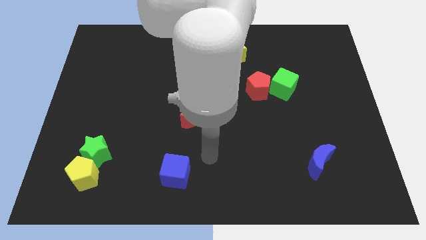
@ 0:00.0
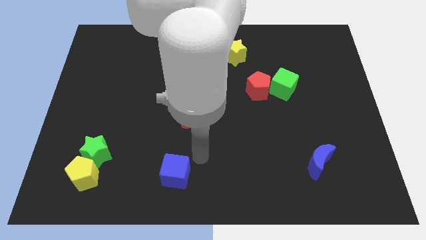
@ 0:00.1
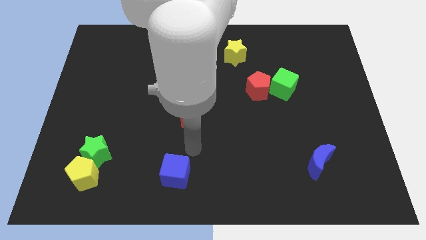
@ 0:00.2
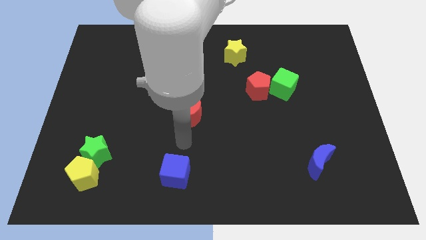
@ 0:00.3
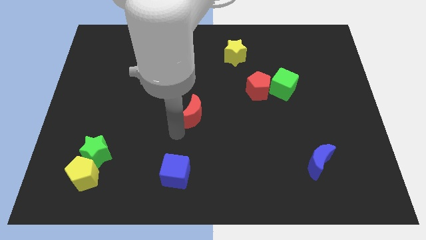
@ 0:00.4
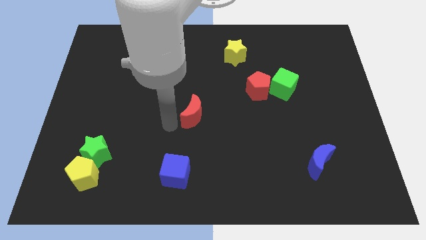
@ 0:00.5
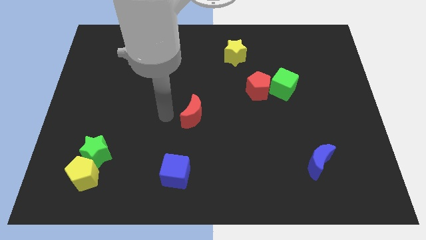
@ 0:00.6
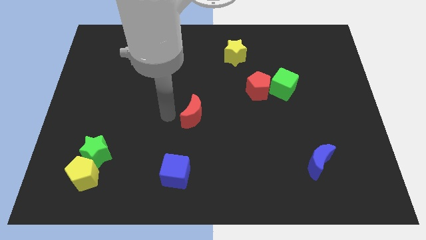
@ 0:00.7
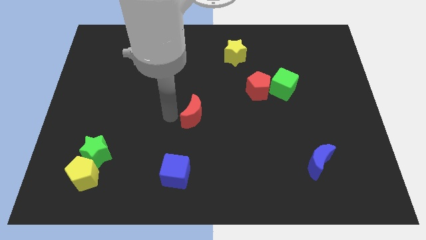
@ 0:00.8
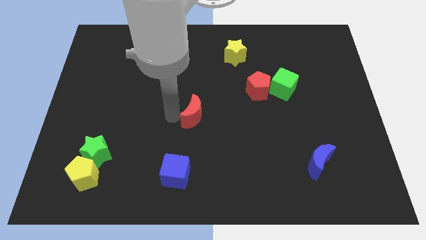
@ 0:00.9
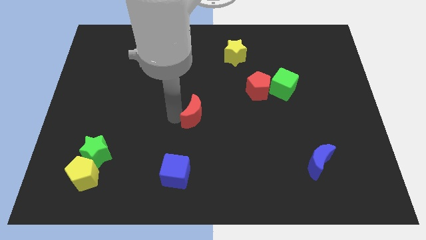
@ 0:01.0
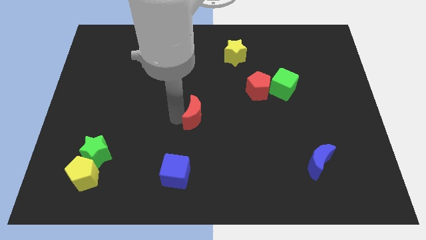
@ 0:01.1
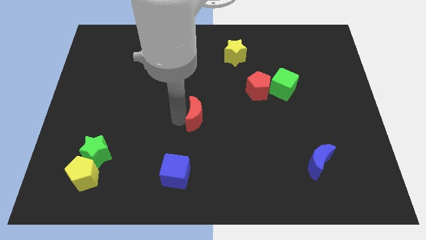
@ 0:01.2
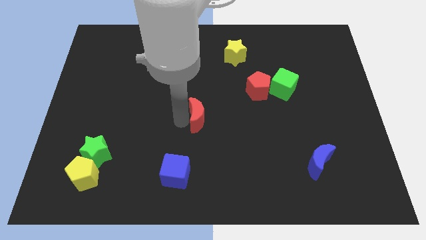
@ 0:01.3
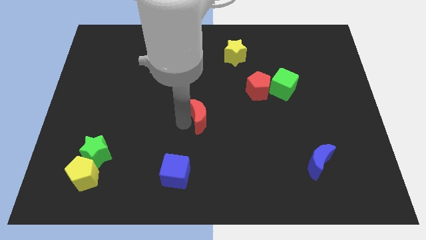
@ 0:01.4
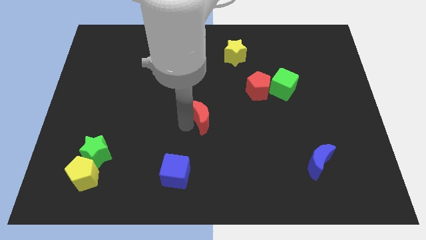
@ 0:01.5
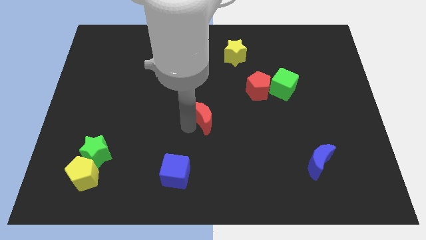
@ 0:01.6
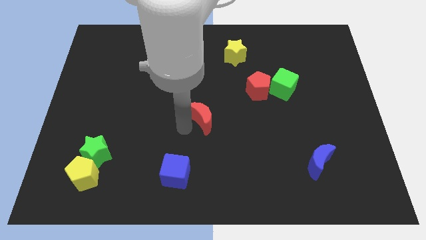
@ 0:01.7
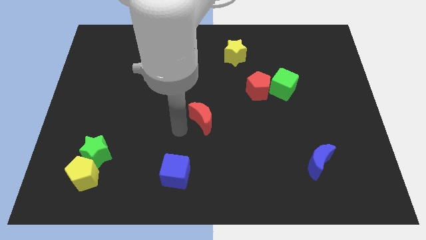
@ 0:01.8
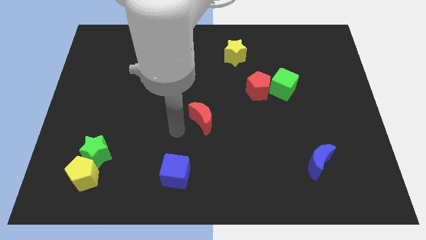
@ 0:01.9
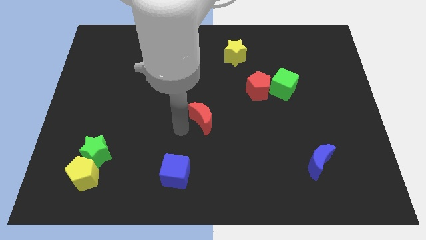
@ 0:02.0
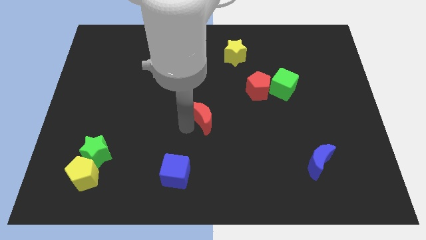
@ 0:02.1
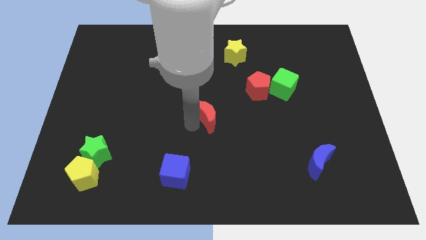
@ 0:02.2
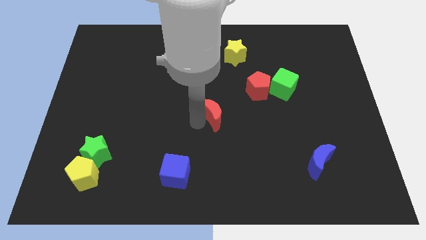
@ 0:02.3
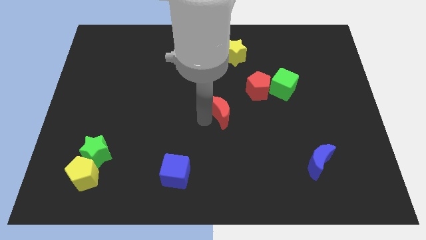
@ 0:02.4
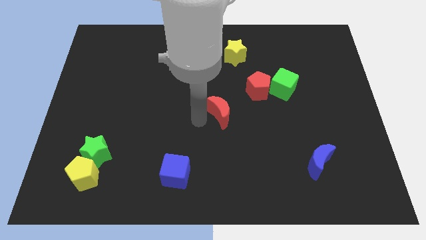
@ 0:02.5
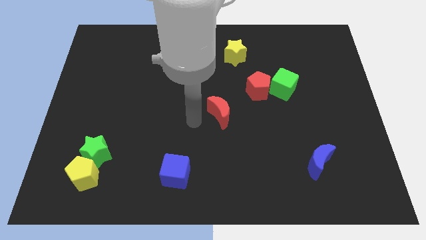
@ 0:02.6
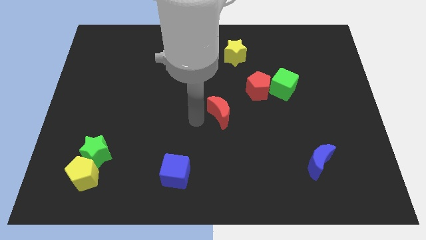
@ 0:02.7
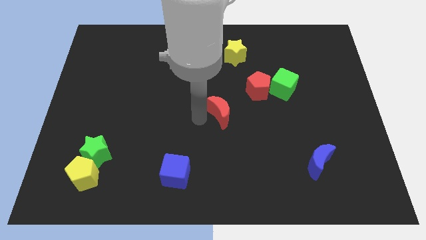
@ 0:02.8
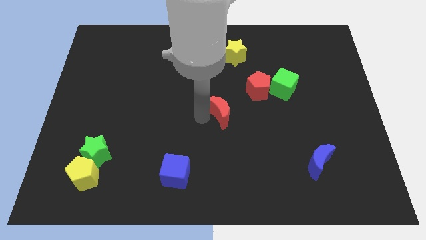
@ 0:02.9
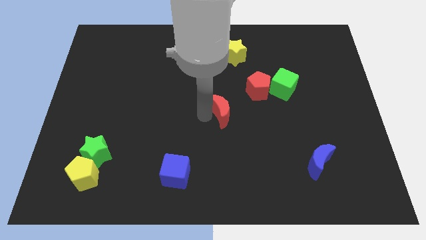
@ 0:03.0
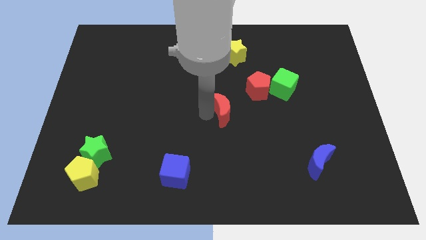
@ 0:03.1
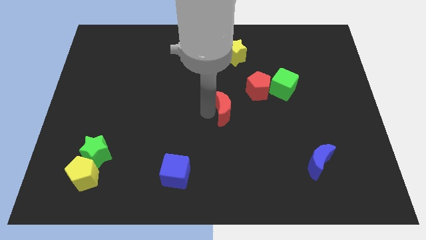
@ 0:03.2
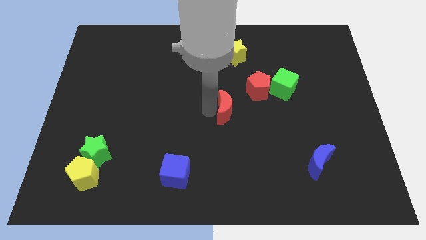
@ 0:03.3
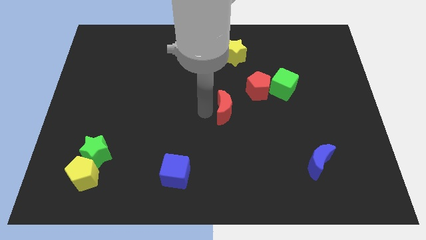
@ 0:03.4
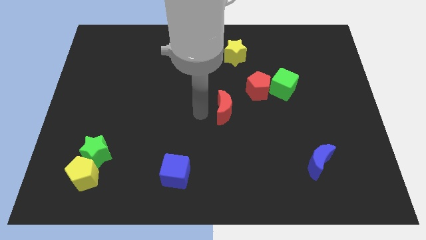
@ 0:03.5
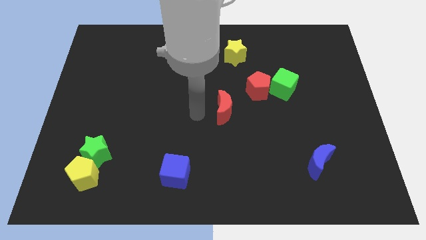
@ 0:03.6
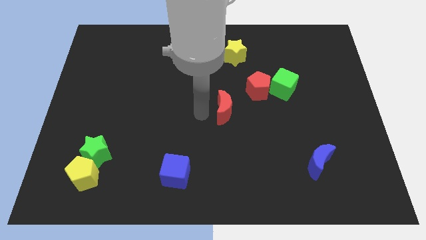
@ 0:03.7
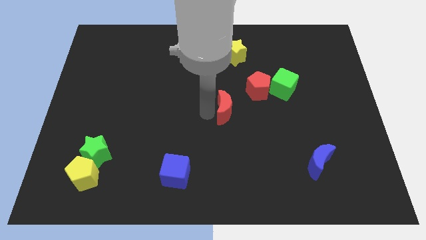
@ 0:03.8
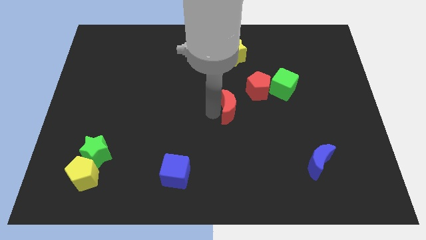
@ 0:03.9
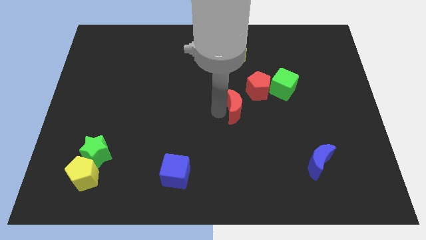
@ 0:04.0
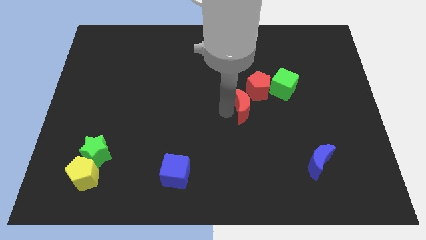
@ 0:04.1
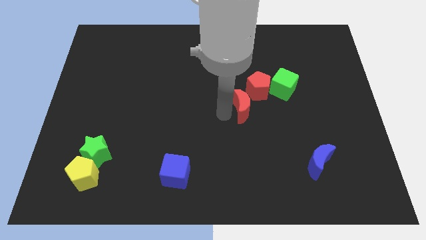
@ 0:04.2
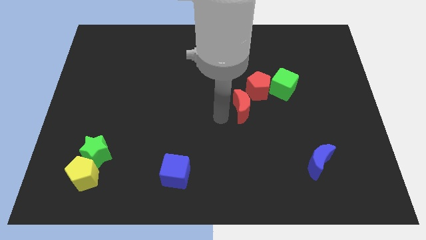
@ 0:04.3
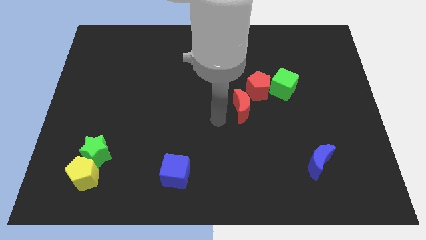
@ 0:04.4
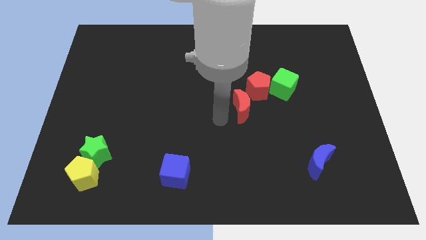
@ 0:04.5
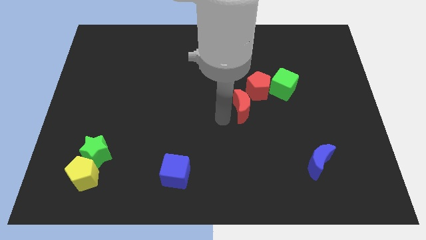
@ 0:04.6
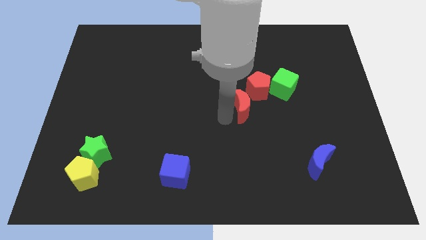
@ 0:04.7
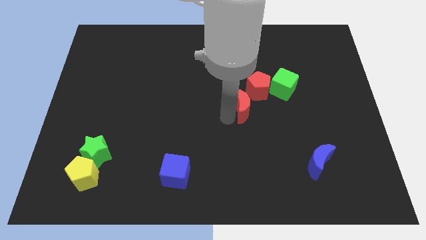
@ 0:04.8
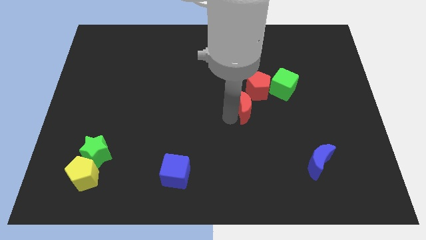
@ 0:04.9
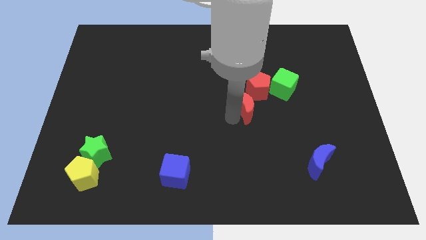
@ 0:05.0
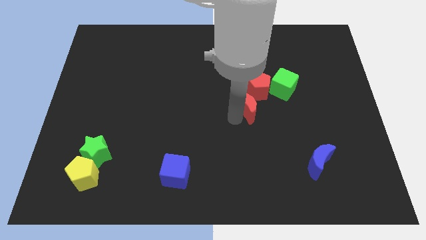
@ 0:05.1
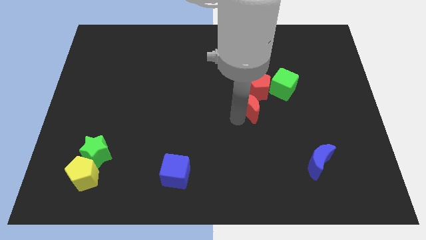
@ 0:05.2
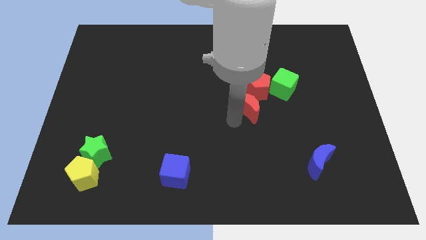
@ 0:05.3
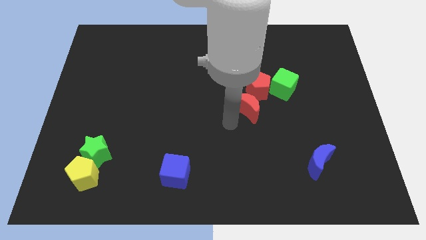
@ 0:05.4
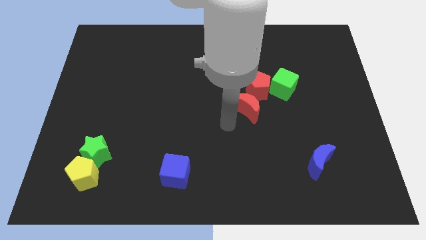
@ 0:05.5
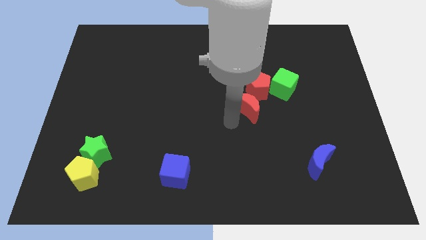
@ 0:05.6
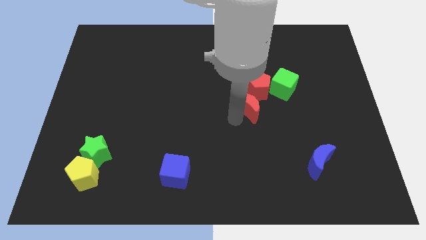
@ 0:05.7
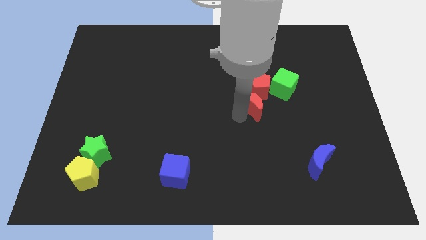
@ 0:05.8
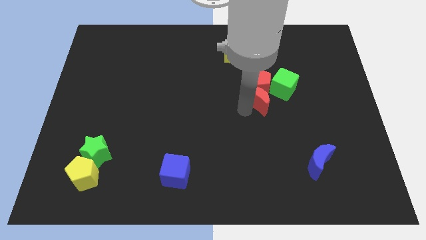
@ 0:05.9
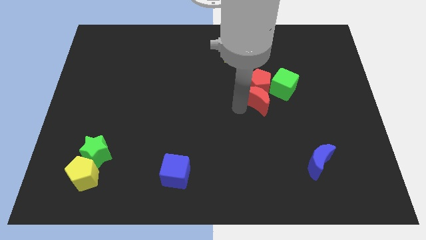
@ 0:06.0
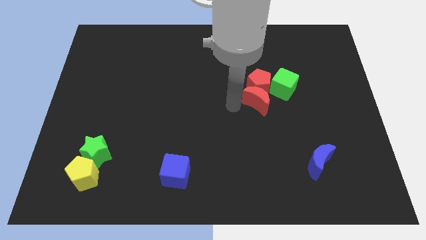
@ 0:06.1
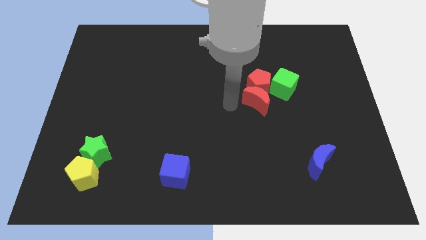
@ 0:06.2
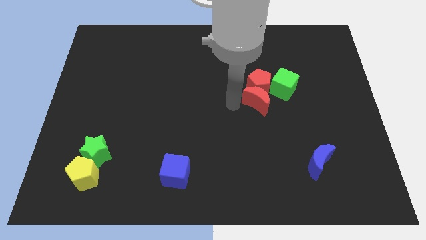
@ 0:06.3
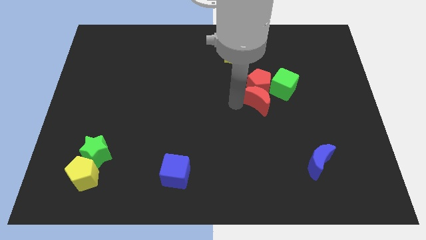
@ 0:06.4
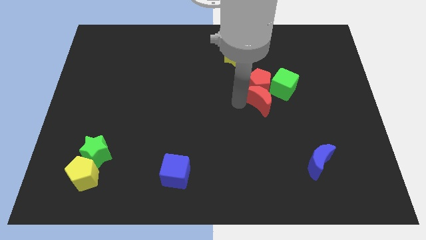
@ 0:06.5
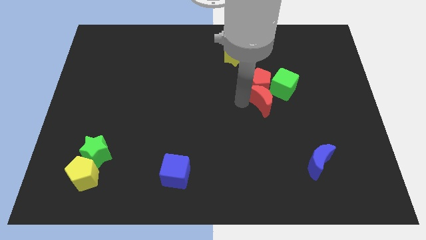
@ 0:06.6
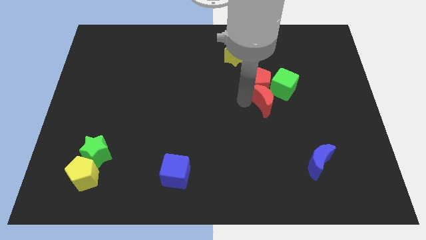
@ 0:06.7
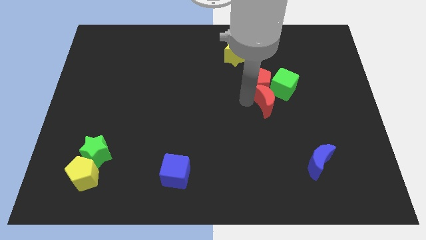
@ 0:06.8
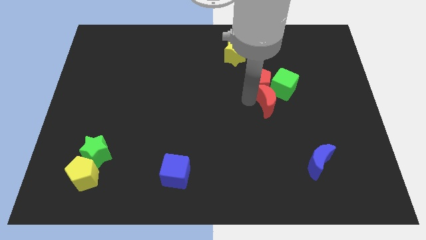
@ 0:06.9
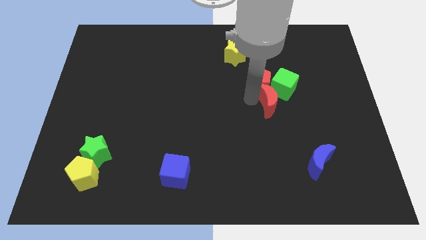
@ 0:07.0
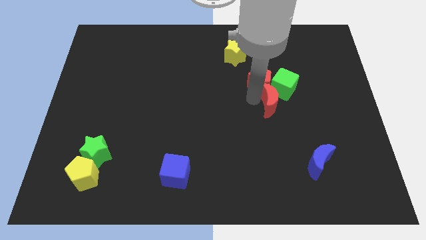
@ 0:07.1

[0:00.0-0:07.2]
push the red moon close to the green cube
